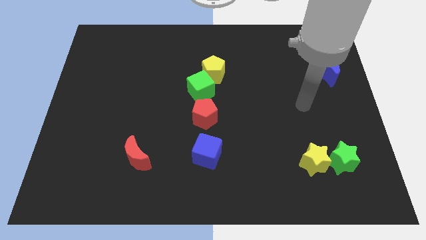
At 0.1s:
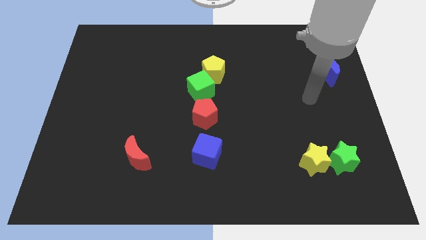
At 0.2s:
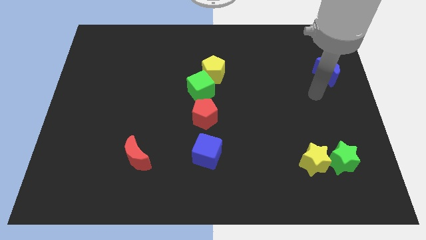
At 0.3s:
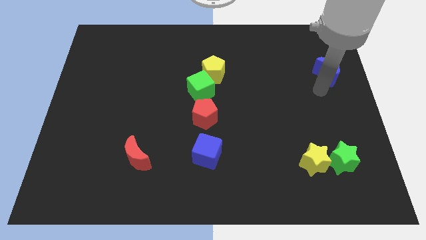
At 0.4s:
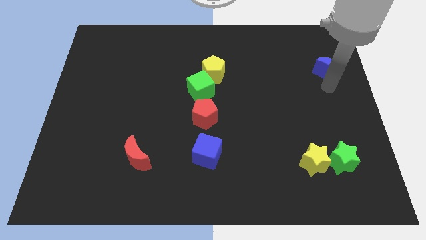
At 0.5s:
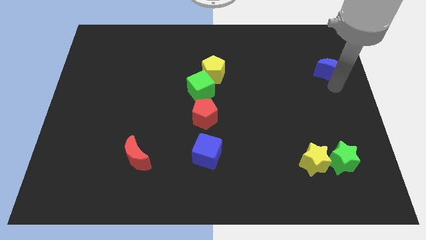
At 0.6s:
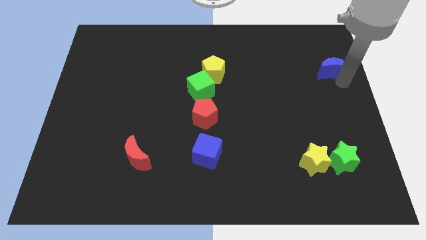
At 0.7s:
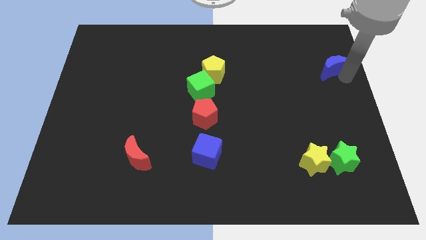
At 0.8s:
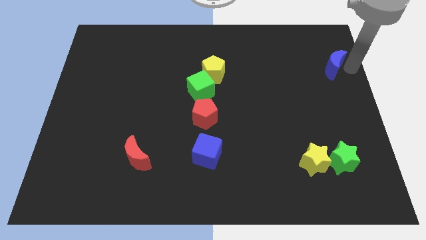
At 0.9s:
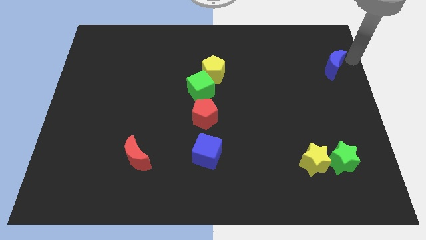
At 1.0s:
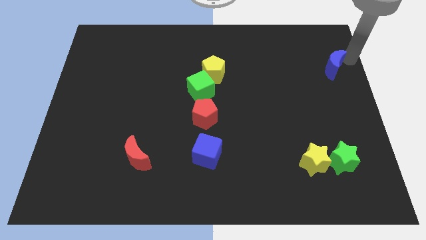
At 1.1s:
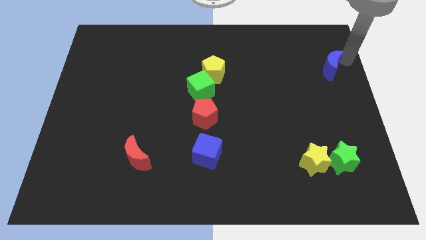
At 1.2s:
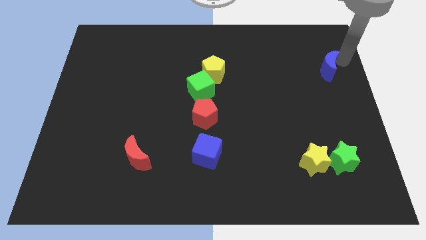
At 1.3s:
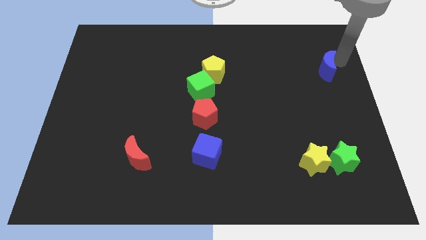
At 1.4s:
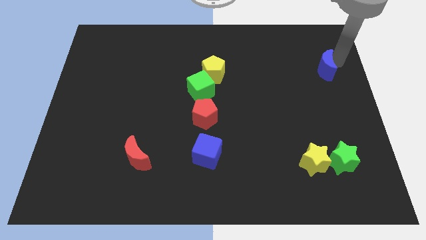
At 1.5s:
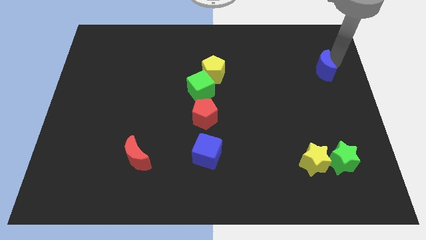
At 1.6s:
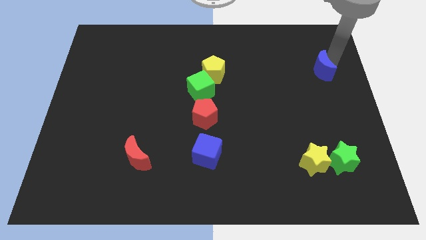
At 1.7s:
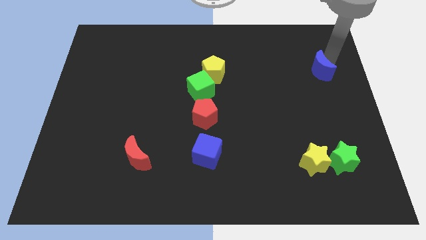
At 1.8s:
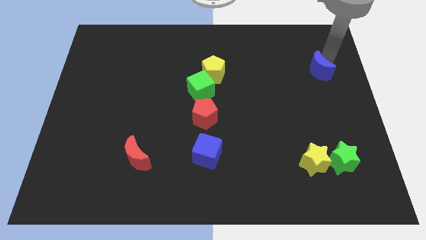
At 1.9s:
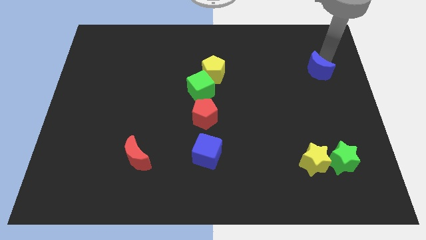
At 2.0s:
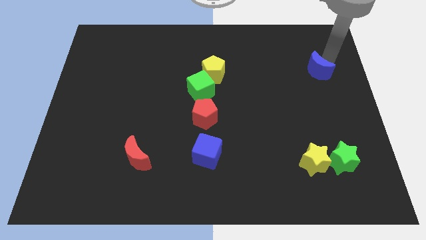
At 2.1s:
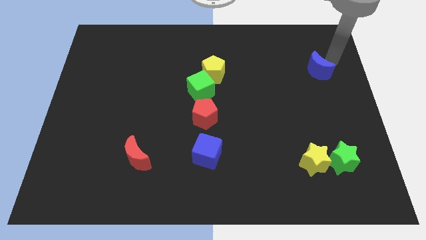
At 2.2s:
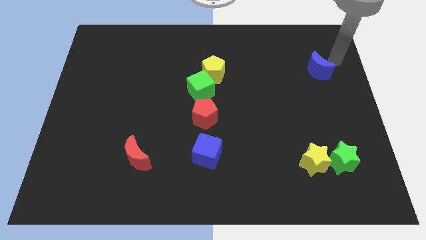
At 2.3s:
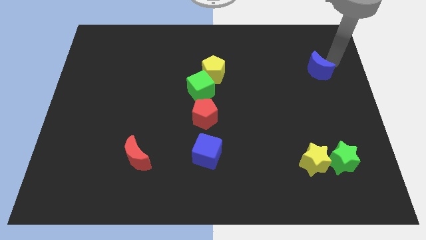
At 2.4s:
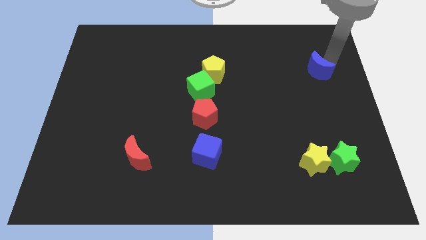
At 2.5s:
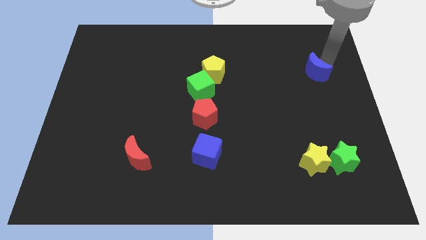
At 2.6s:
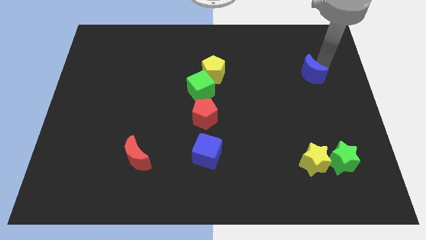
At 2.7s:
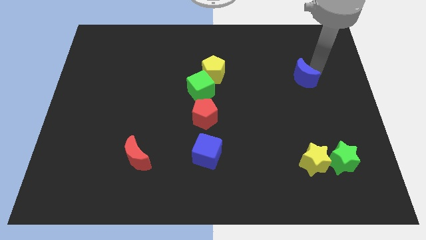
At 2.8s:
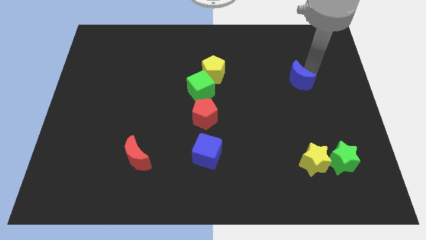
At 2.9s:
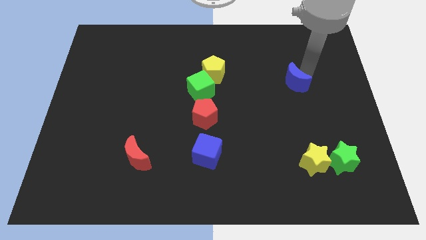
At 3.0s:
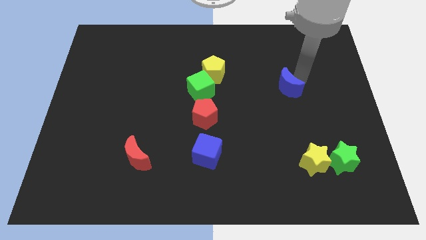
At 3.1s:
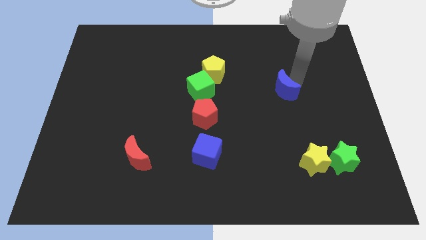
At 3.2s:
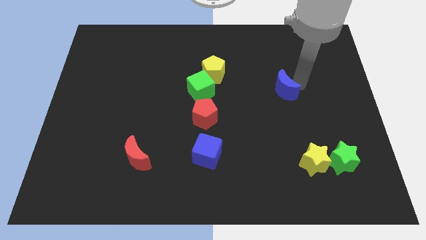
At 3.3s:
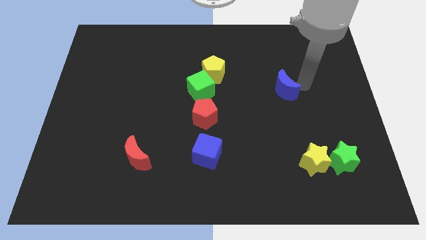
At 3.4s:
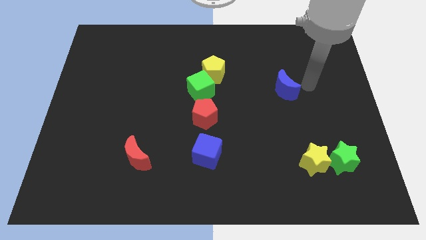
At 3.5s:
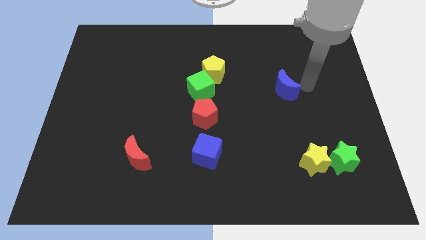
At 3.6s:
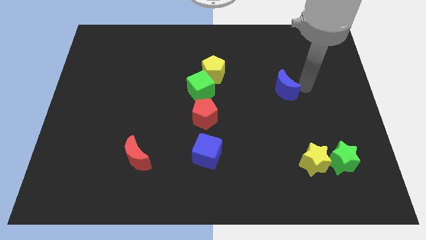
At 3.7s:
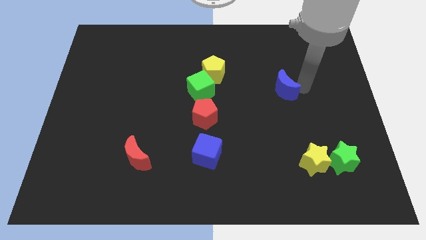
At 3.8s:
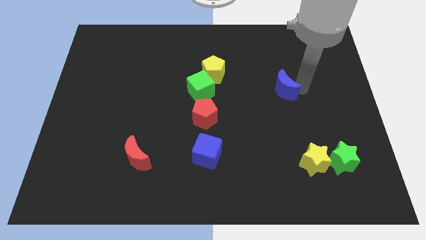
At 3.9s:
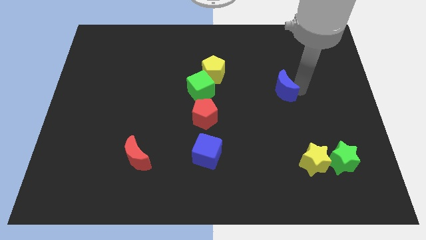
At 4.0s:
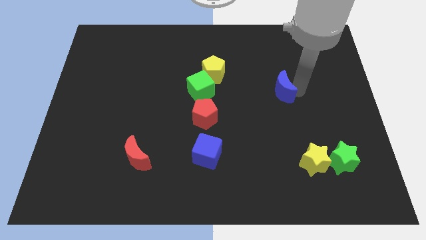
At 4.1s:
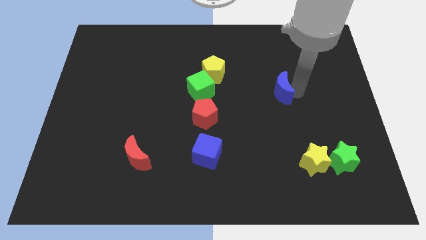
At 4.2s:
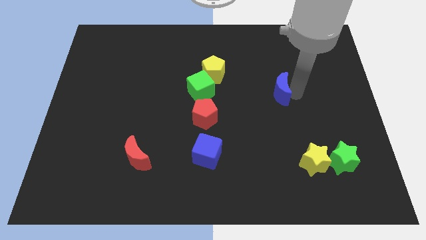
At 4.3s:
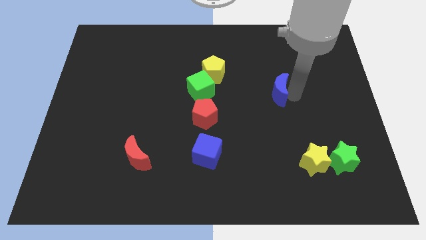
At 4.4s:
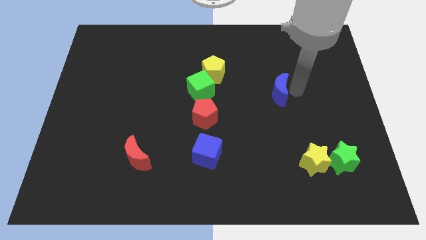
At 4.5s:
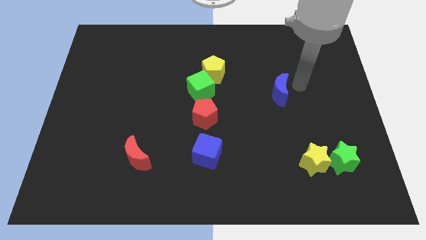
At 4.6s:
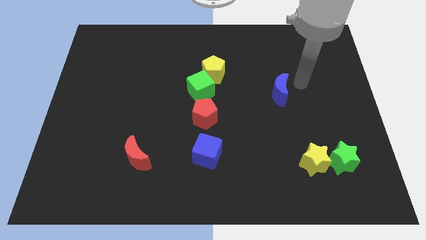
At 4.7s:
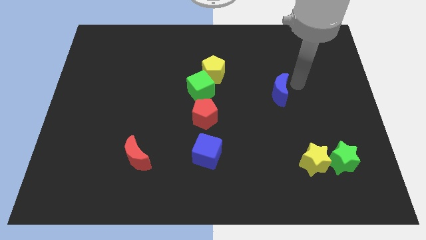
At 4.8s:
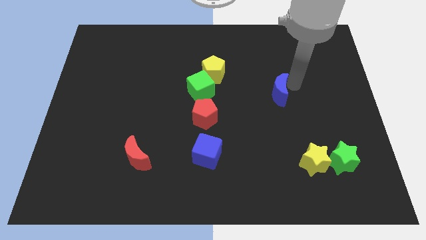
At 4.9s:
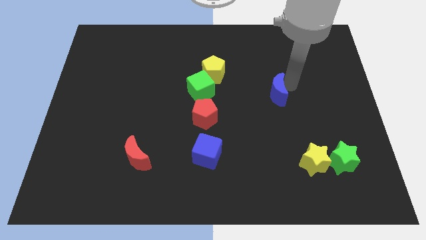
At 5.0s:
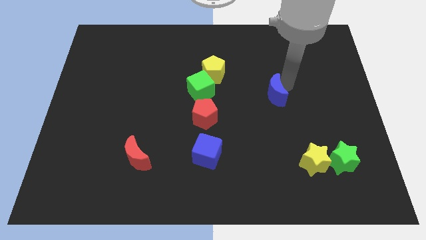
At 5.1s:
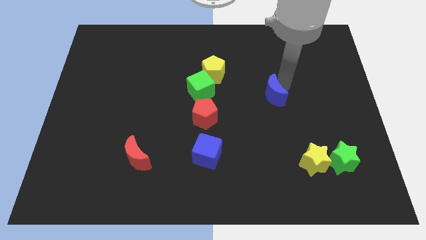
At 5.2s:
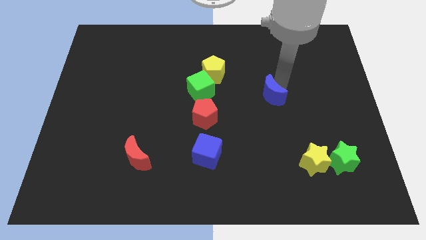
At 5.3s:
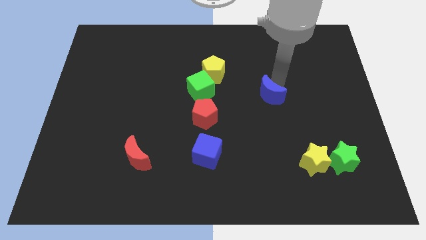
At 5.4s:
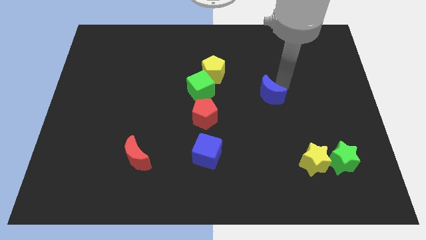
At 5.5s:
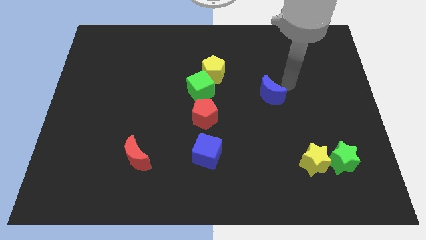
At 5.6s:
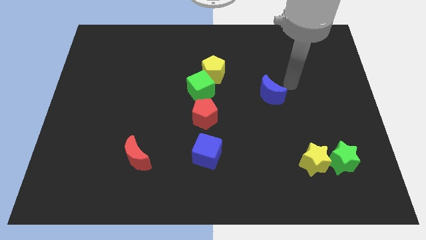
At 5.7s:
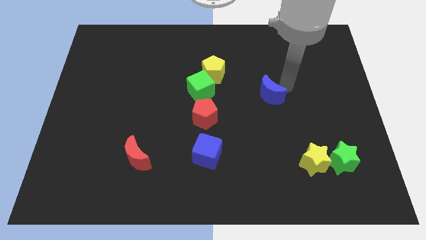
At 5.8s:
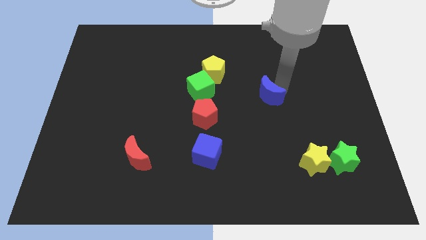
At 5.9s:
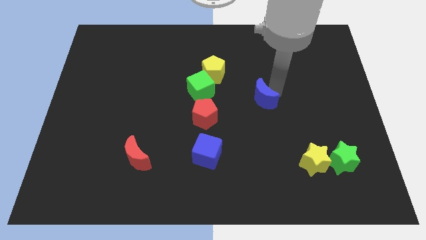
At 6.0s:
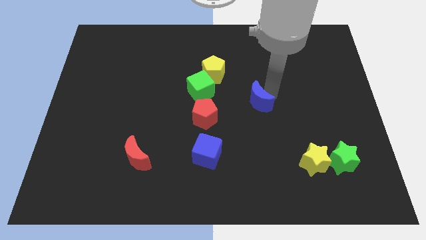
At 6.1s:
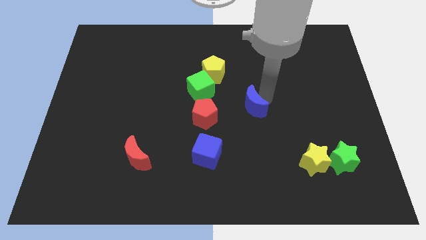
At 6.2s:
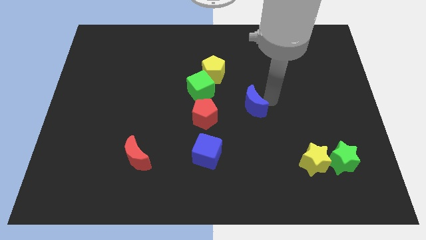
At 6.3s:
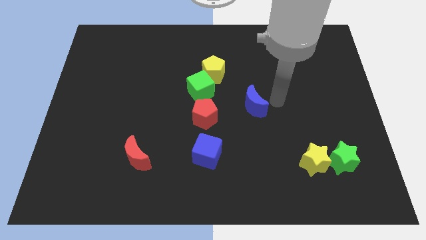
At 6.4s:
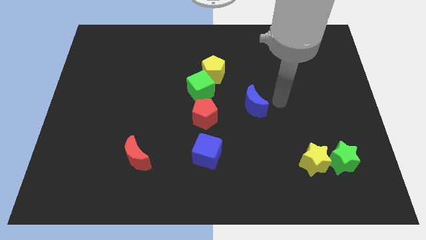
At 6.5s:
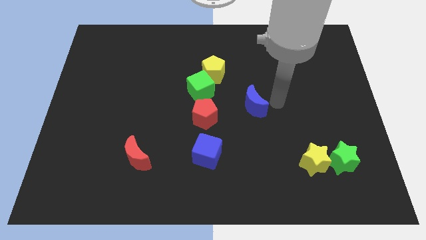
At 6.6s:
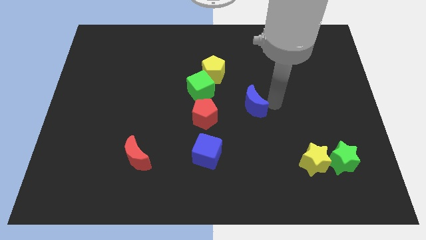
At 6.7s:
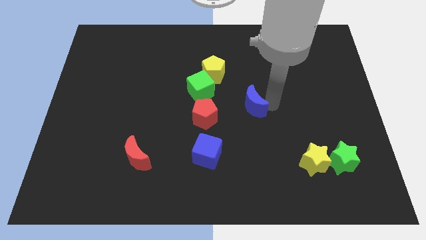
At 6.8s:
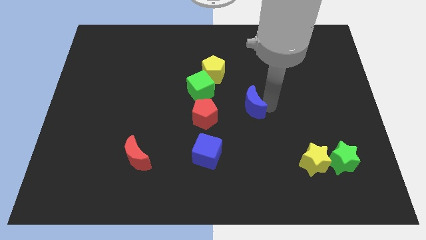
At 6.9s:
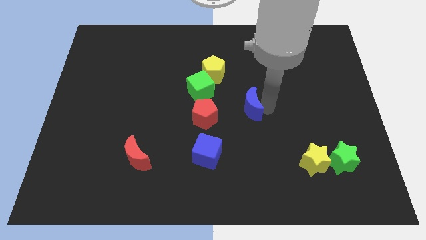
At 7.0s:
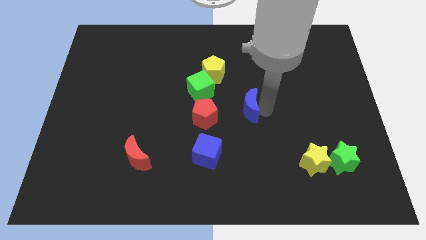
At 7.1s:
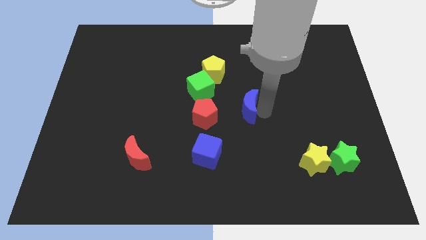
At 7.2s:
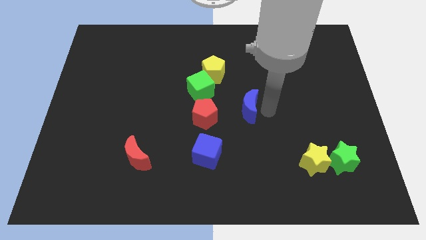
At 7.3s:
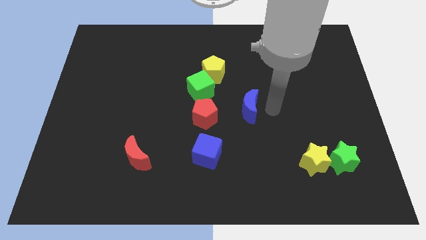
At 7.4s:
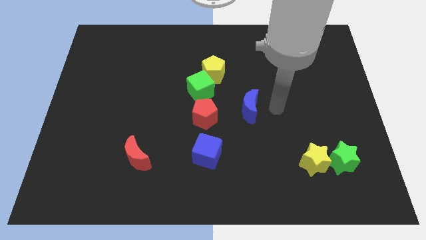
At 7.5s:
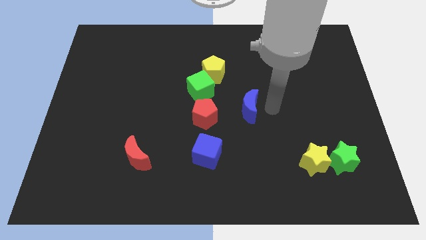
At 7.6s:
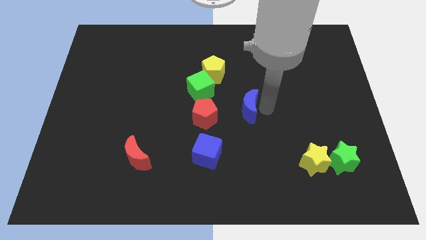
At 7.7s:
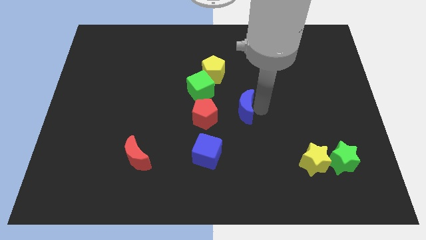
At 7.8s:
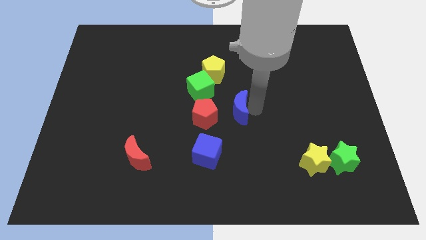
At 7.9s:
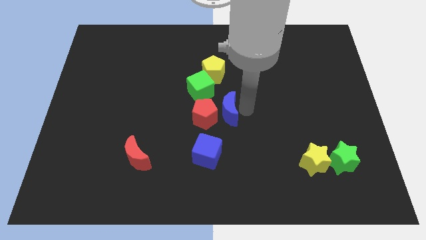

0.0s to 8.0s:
slide the blue moon towards the red pentagon

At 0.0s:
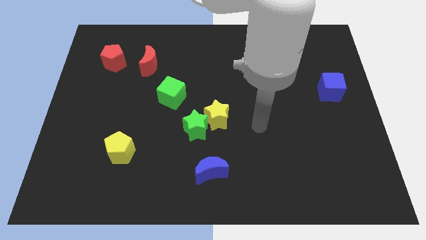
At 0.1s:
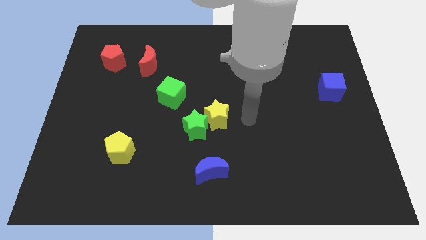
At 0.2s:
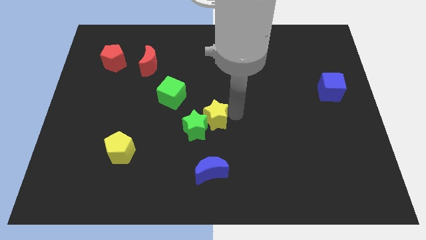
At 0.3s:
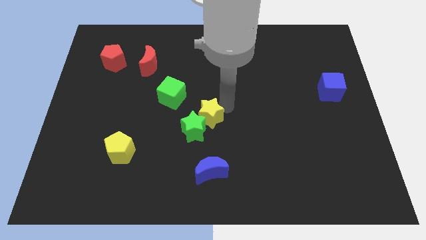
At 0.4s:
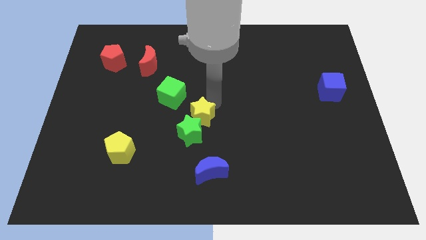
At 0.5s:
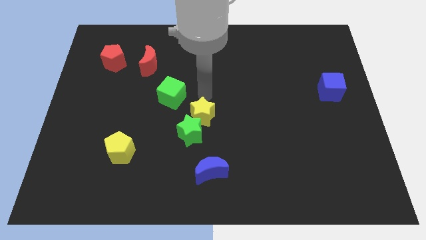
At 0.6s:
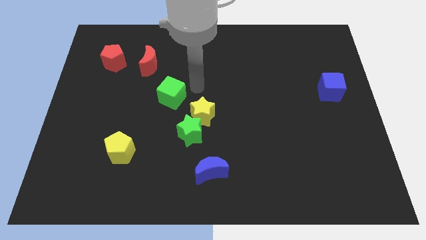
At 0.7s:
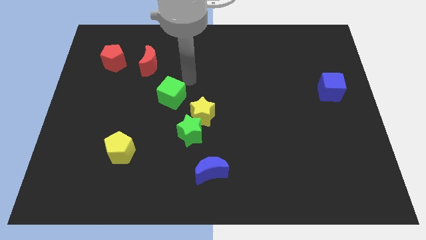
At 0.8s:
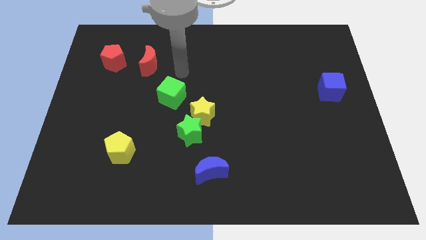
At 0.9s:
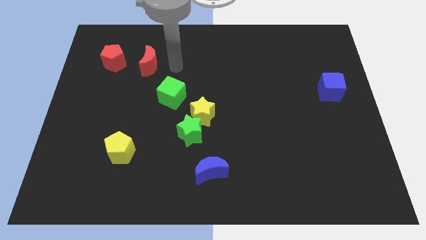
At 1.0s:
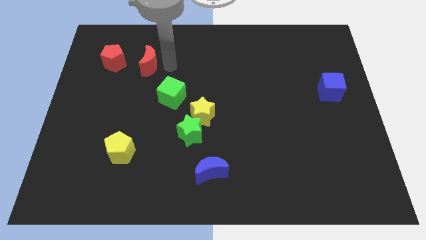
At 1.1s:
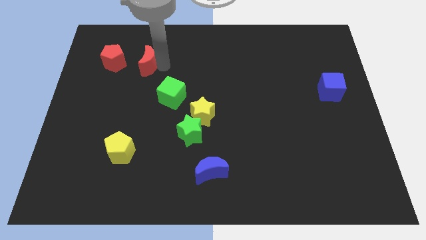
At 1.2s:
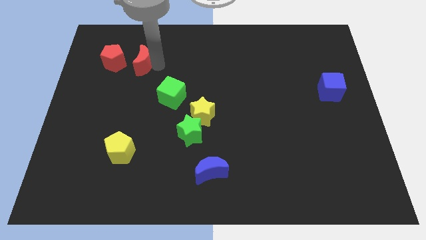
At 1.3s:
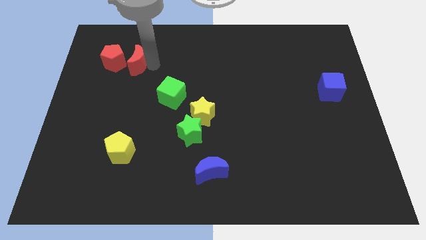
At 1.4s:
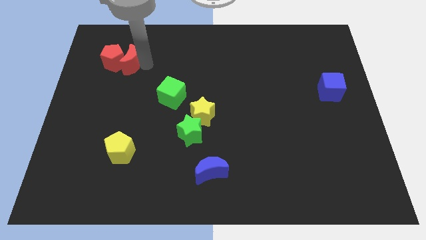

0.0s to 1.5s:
slide the red moon towards the red pentagon
